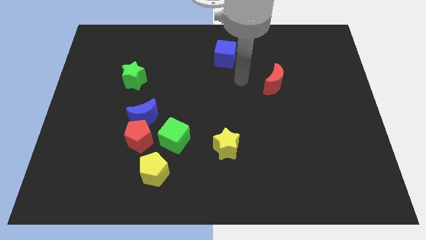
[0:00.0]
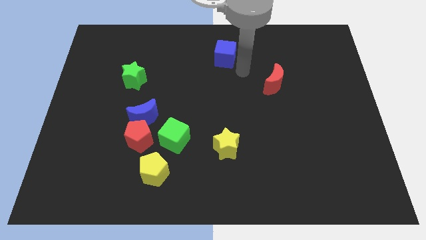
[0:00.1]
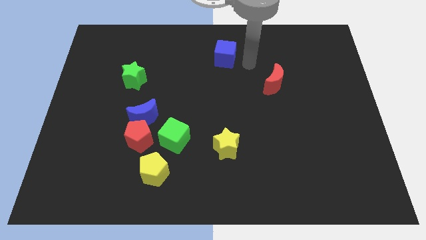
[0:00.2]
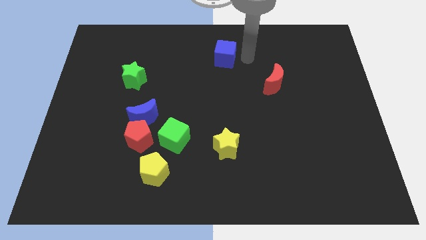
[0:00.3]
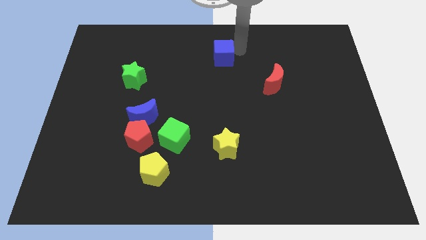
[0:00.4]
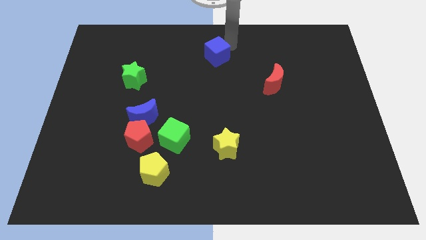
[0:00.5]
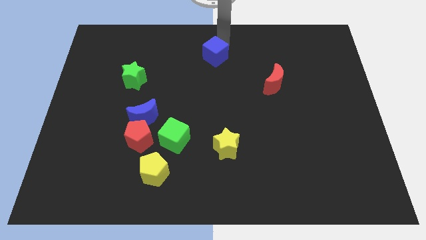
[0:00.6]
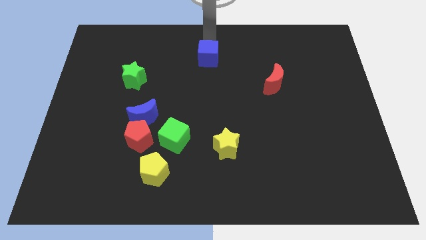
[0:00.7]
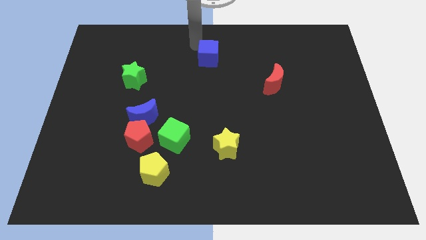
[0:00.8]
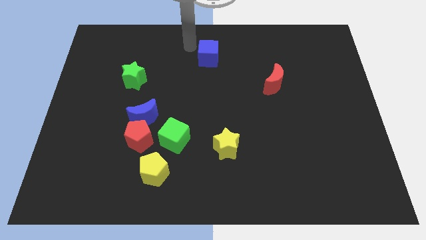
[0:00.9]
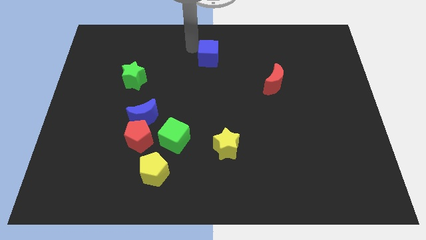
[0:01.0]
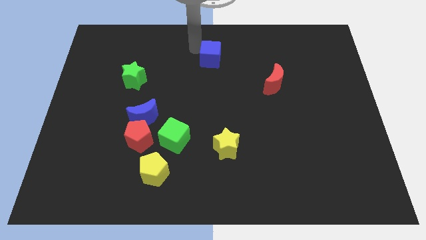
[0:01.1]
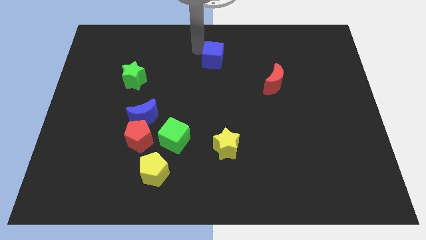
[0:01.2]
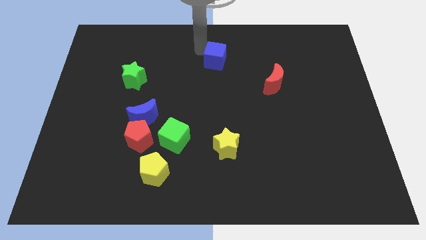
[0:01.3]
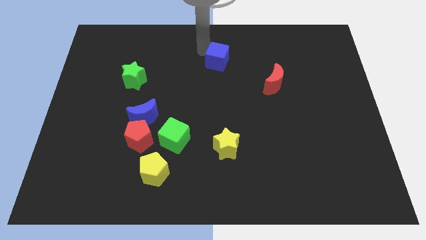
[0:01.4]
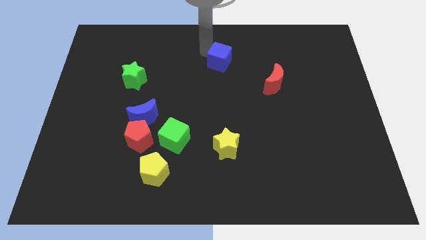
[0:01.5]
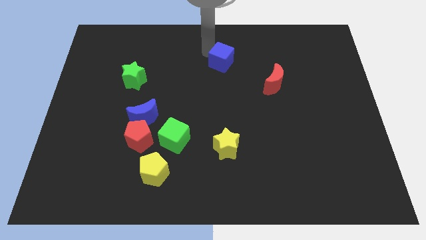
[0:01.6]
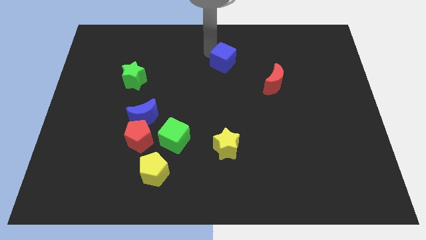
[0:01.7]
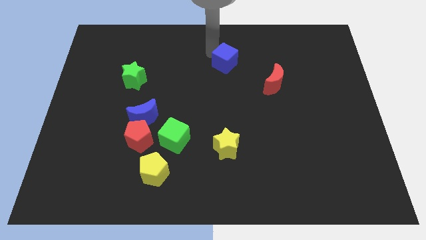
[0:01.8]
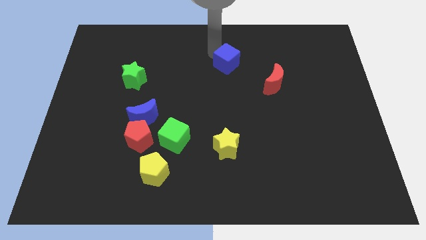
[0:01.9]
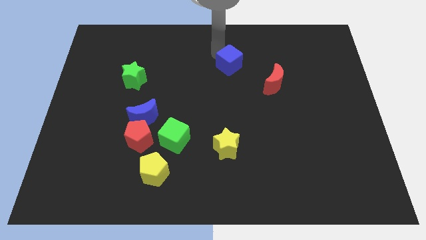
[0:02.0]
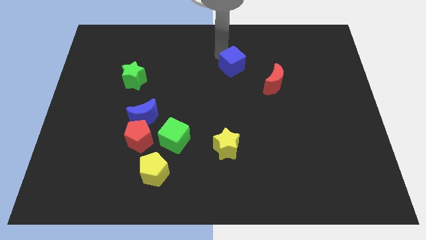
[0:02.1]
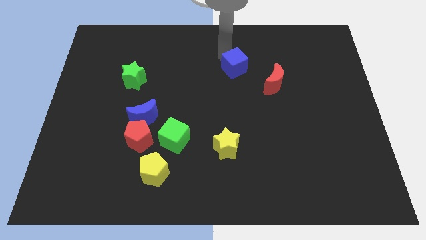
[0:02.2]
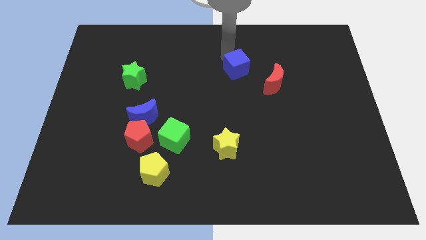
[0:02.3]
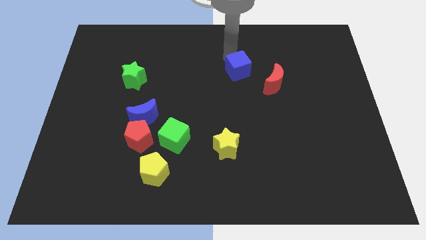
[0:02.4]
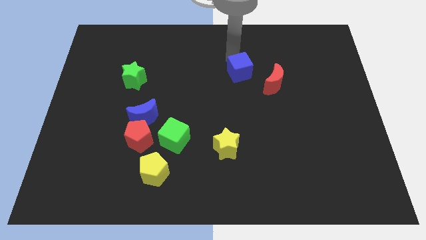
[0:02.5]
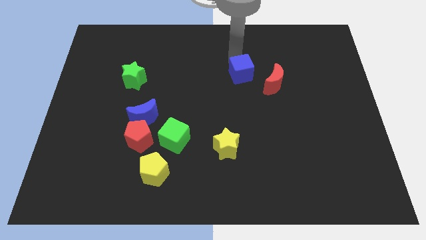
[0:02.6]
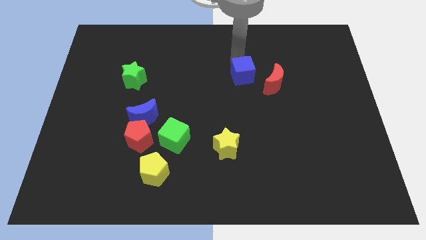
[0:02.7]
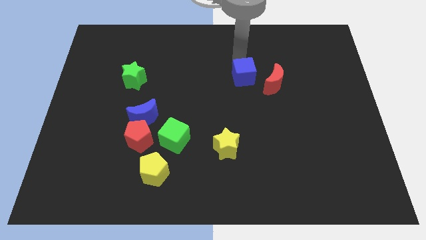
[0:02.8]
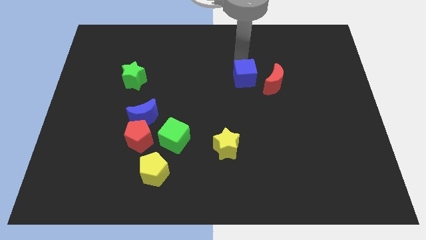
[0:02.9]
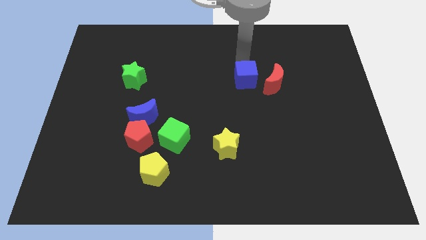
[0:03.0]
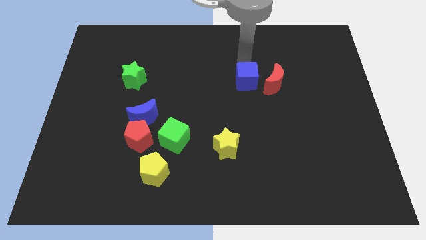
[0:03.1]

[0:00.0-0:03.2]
move the blue cube somewhat downwards

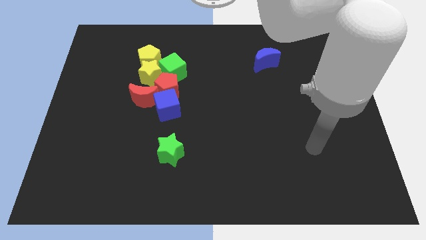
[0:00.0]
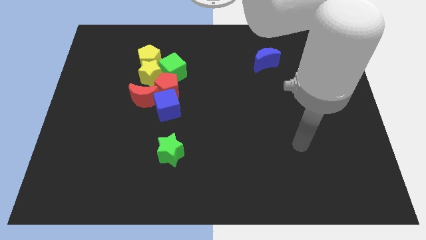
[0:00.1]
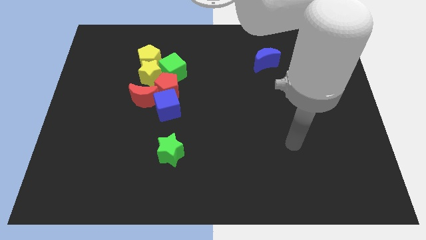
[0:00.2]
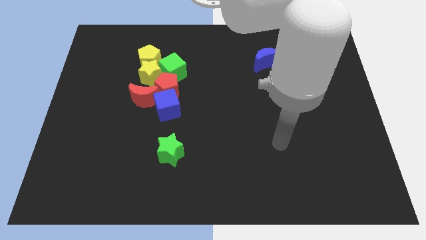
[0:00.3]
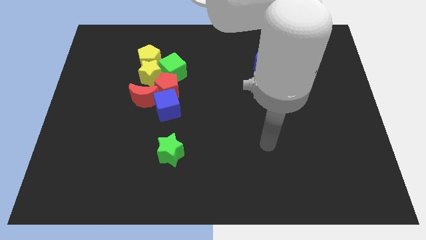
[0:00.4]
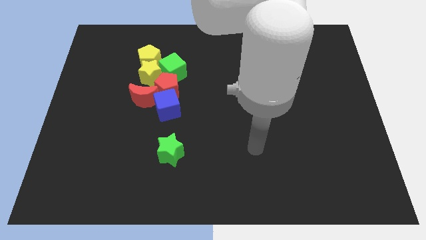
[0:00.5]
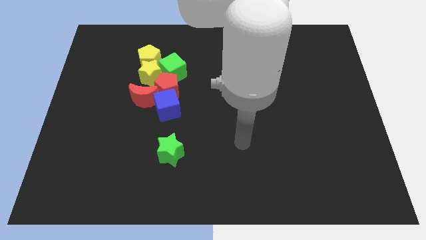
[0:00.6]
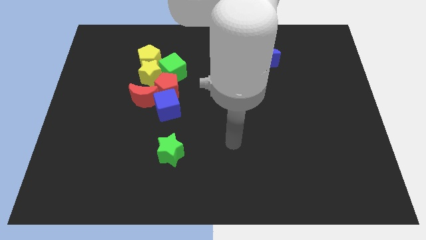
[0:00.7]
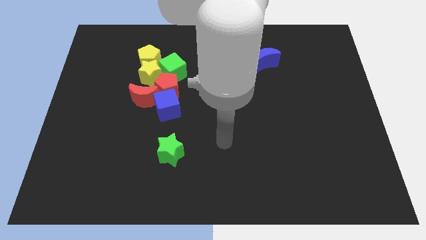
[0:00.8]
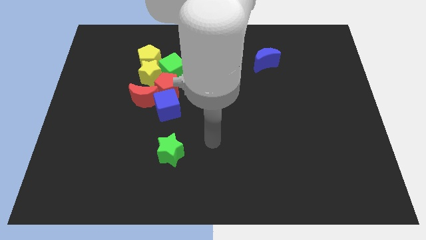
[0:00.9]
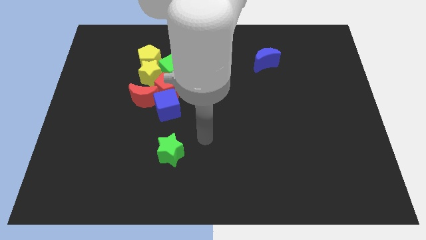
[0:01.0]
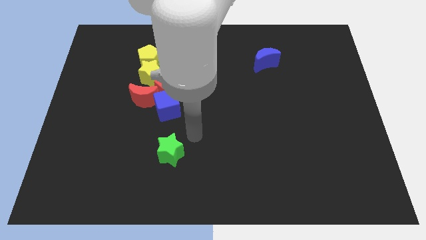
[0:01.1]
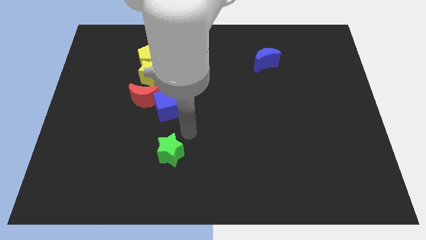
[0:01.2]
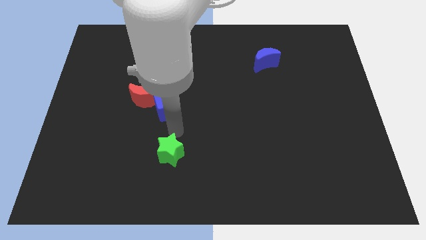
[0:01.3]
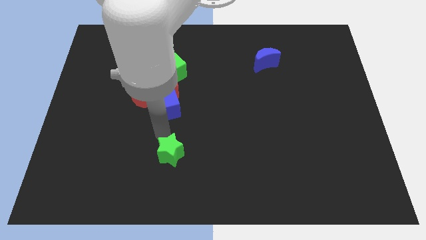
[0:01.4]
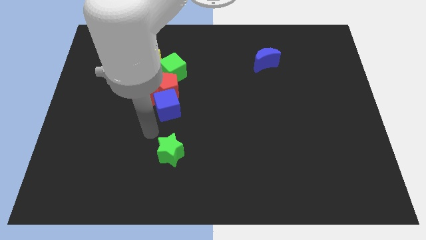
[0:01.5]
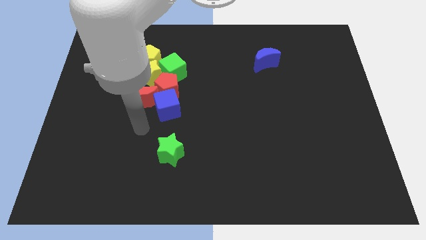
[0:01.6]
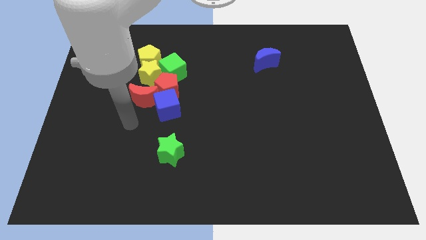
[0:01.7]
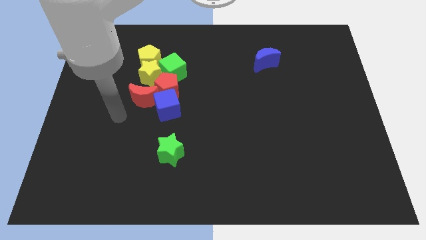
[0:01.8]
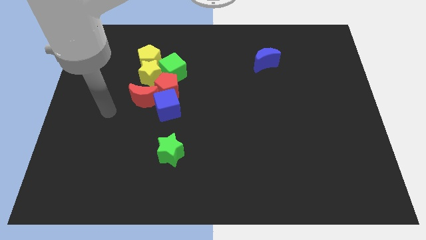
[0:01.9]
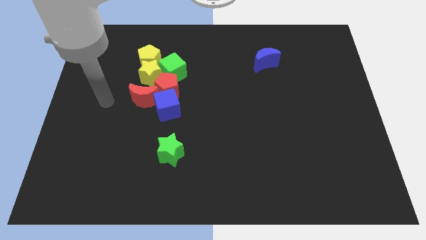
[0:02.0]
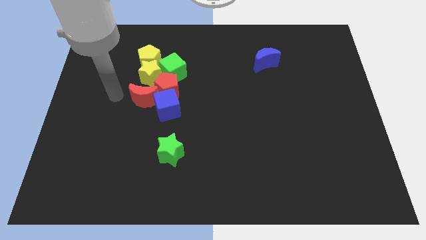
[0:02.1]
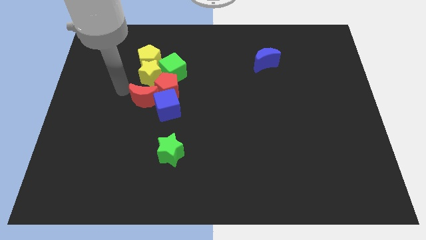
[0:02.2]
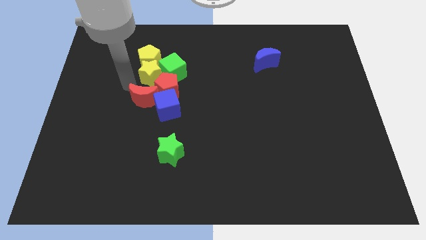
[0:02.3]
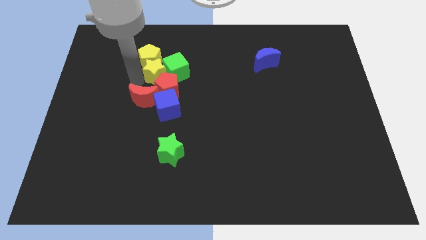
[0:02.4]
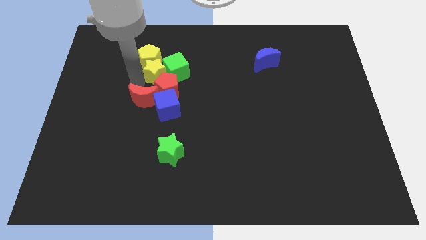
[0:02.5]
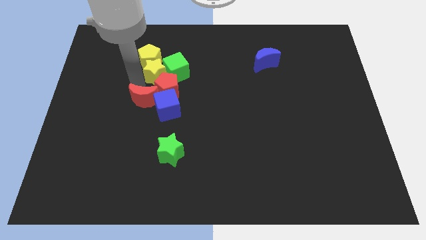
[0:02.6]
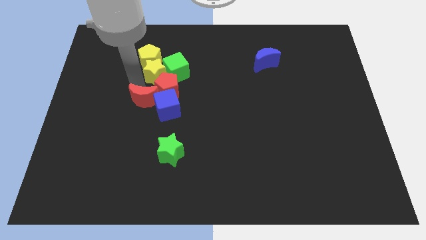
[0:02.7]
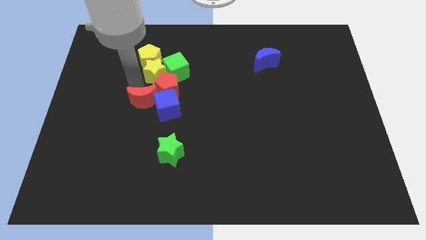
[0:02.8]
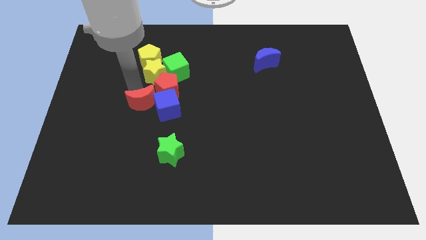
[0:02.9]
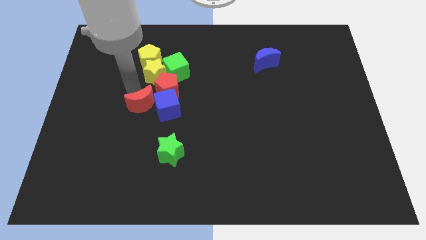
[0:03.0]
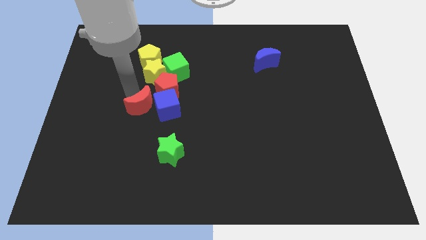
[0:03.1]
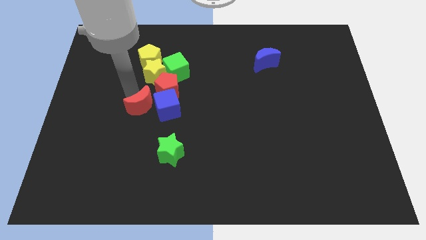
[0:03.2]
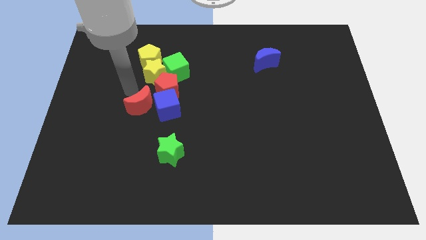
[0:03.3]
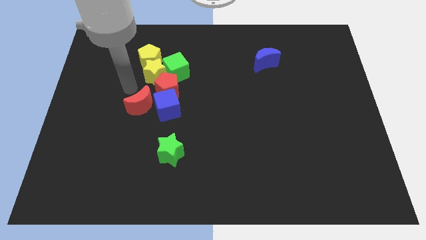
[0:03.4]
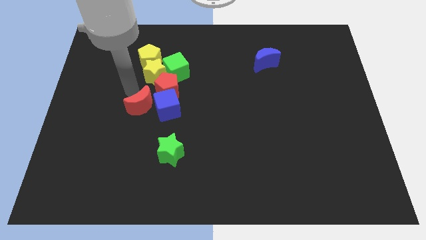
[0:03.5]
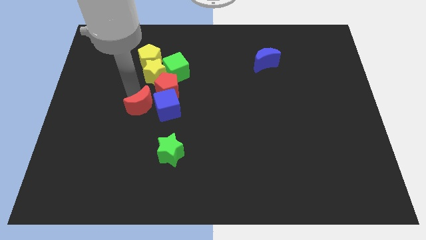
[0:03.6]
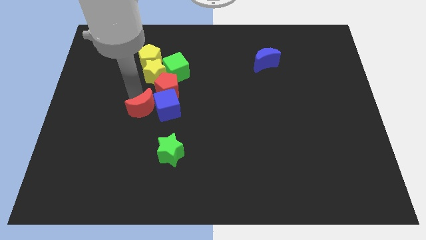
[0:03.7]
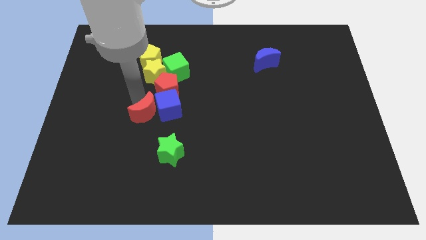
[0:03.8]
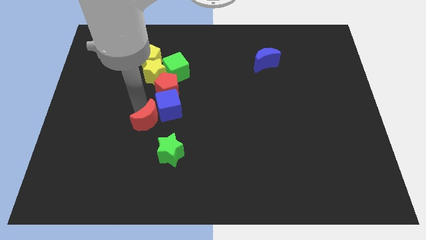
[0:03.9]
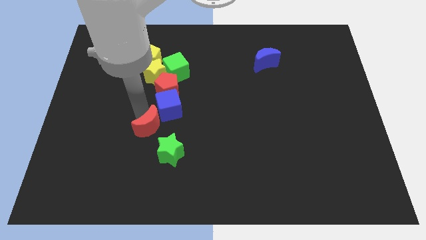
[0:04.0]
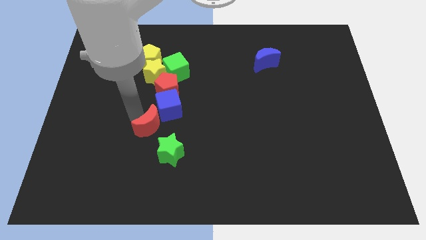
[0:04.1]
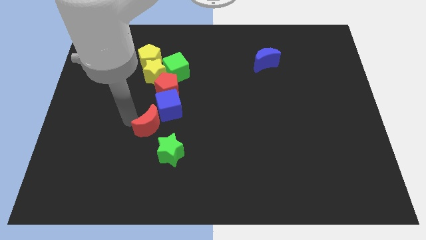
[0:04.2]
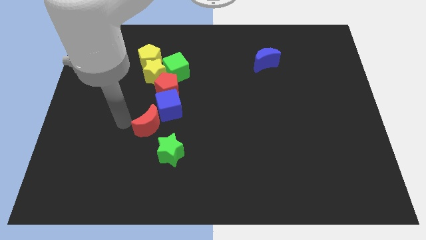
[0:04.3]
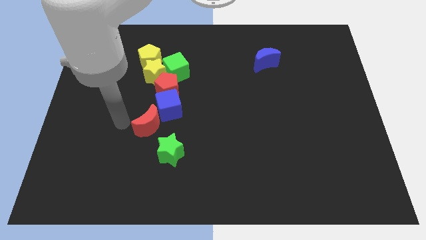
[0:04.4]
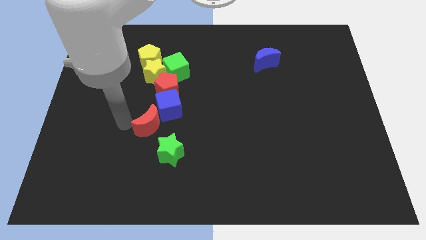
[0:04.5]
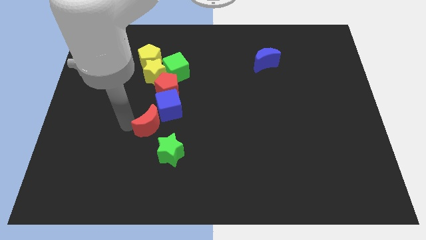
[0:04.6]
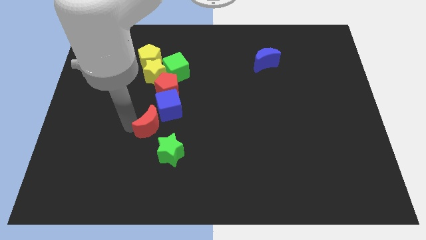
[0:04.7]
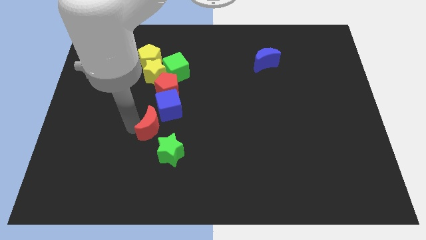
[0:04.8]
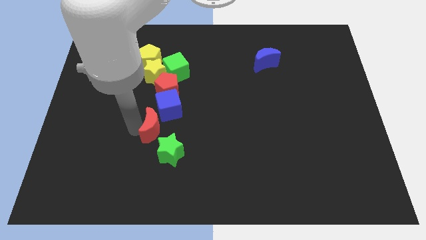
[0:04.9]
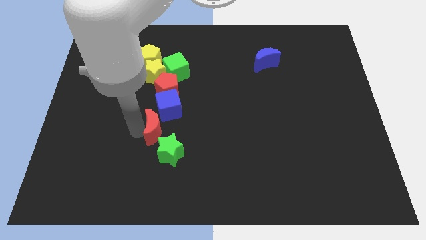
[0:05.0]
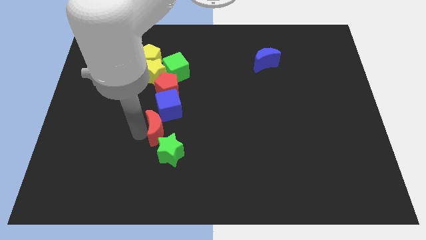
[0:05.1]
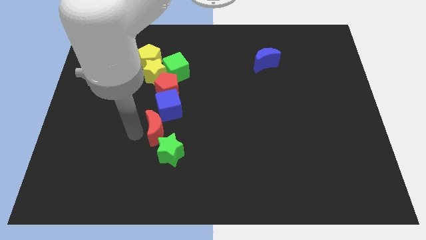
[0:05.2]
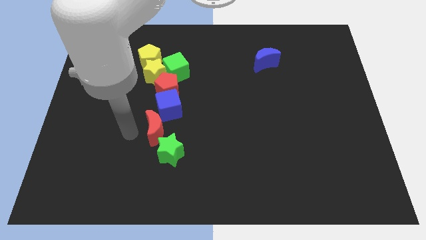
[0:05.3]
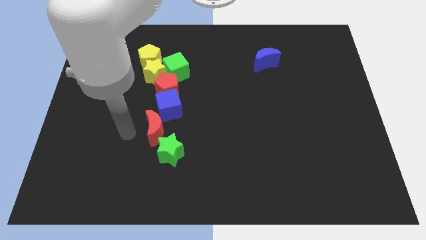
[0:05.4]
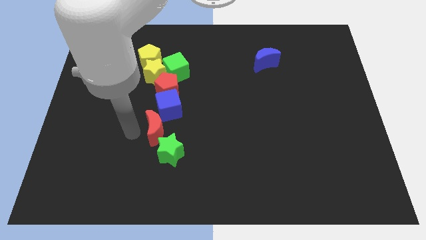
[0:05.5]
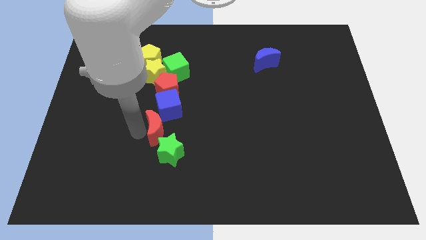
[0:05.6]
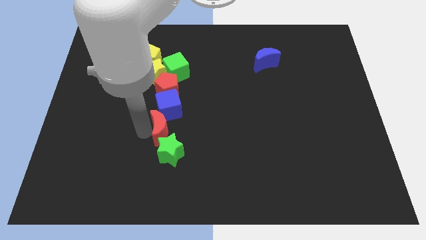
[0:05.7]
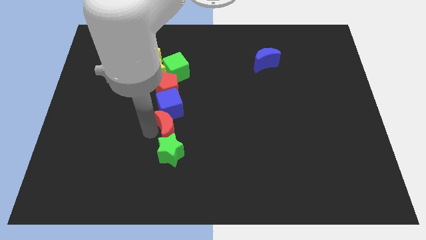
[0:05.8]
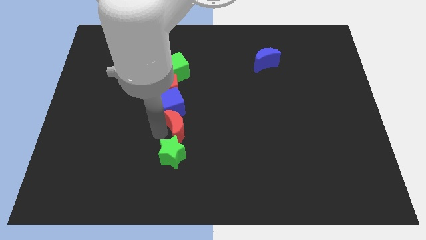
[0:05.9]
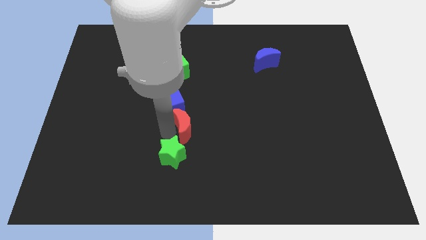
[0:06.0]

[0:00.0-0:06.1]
slightly push the red moon right
